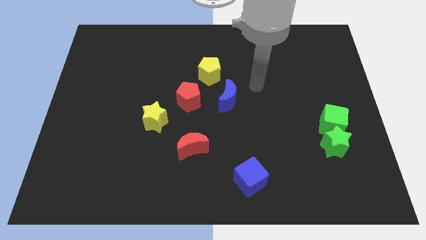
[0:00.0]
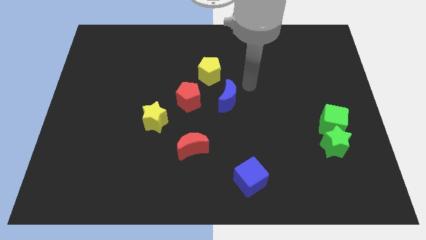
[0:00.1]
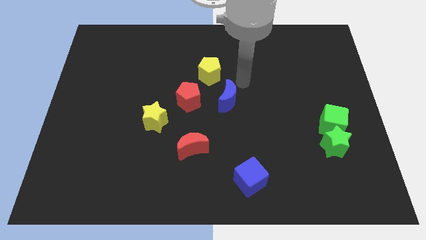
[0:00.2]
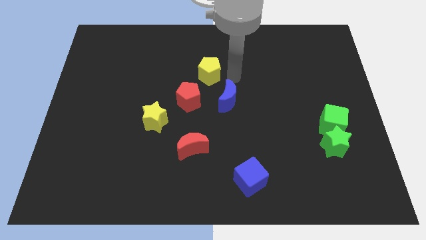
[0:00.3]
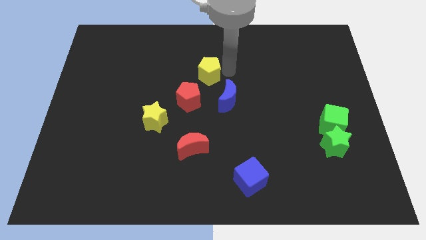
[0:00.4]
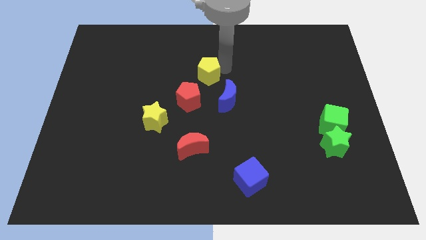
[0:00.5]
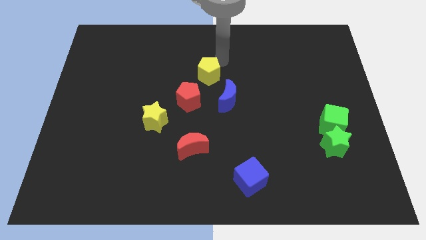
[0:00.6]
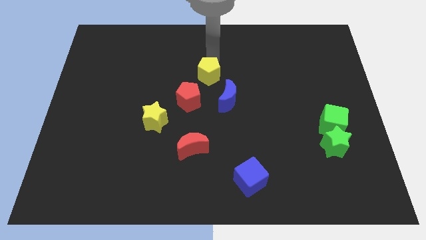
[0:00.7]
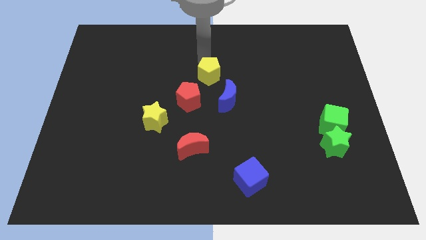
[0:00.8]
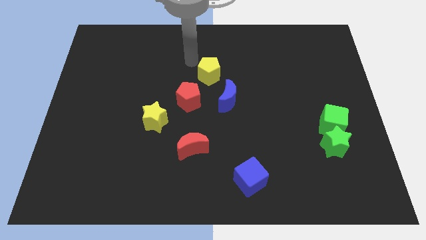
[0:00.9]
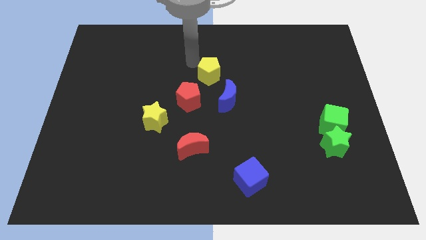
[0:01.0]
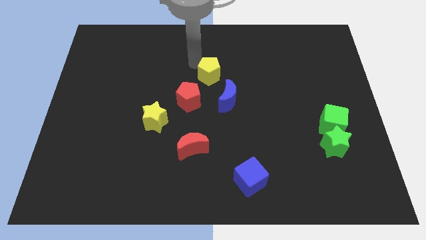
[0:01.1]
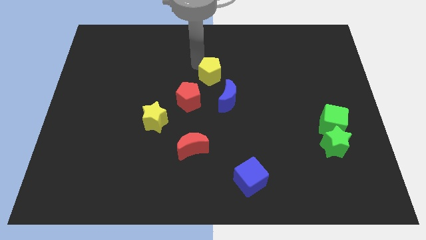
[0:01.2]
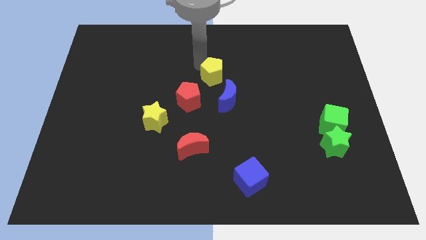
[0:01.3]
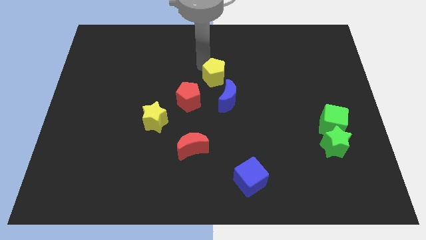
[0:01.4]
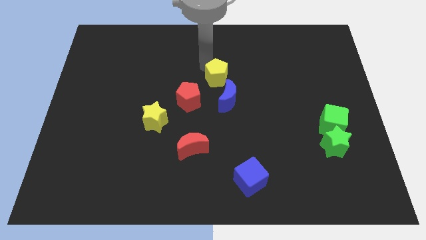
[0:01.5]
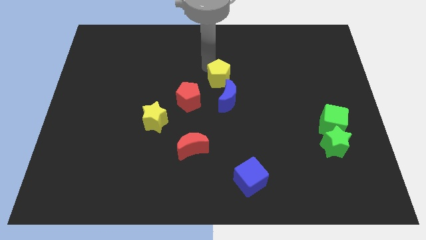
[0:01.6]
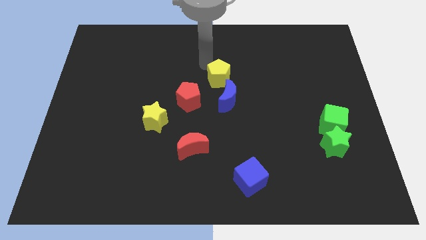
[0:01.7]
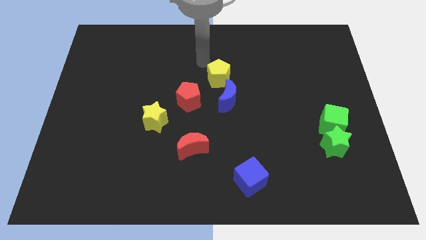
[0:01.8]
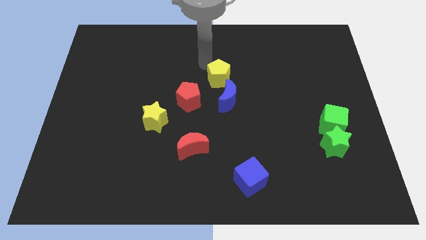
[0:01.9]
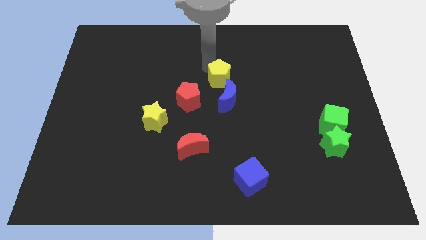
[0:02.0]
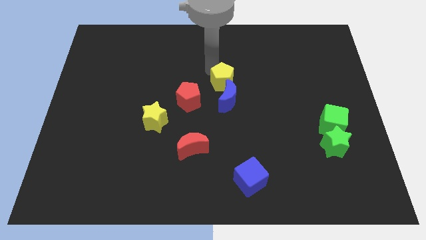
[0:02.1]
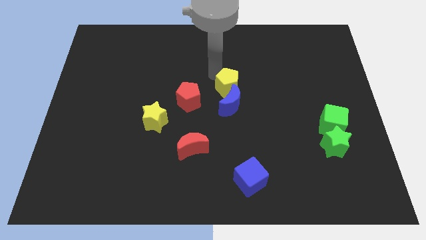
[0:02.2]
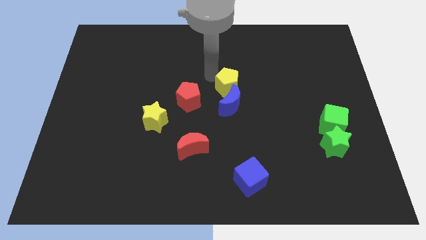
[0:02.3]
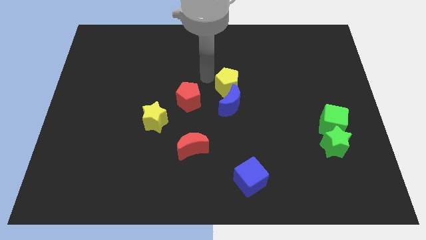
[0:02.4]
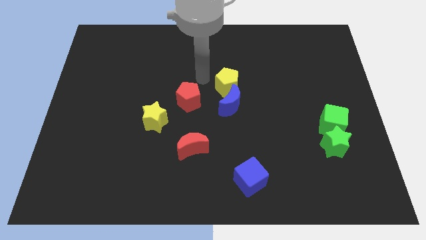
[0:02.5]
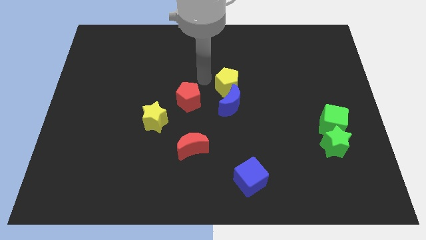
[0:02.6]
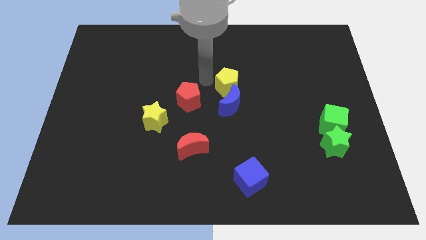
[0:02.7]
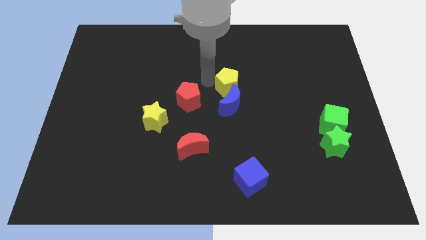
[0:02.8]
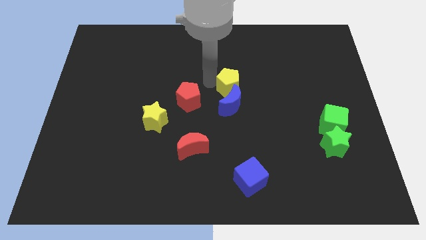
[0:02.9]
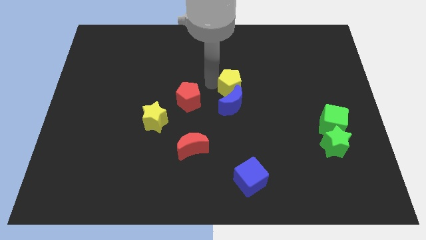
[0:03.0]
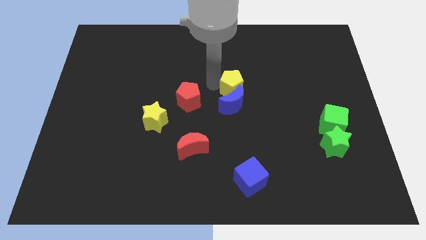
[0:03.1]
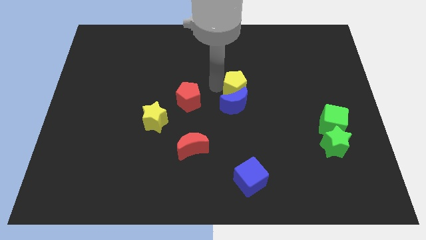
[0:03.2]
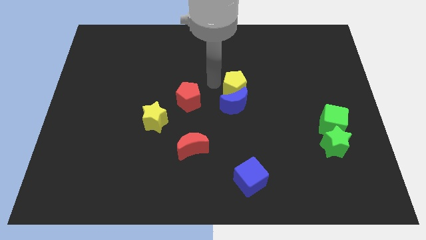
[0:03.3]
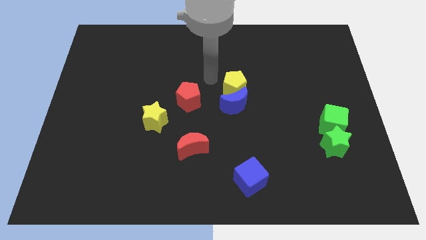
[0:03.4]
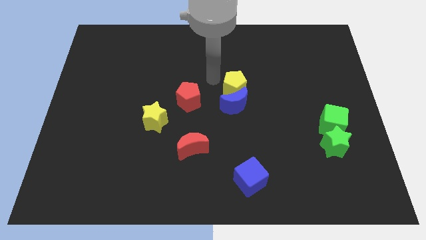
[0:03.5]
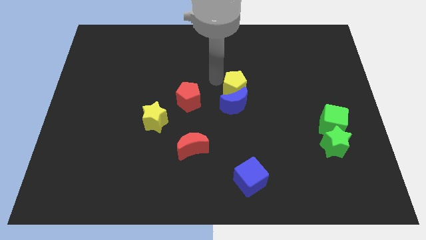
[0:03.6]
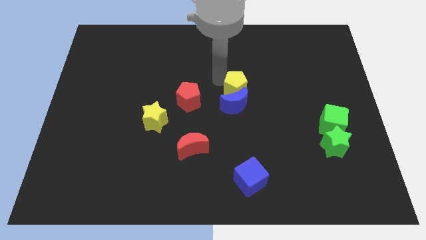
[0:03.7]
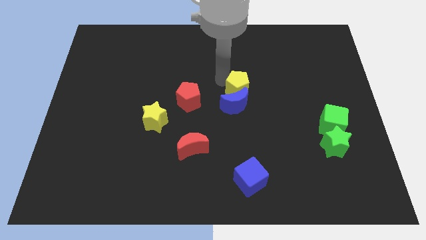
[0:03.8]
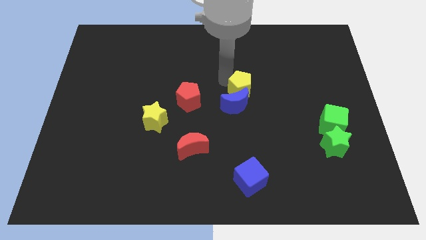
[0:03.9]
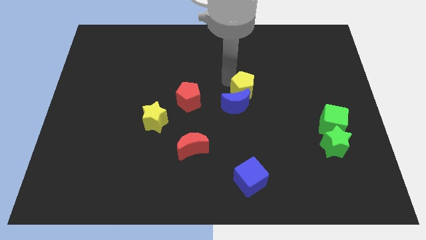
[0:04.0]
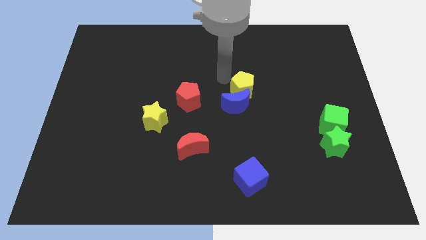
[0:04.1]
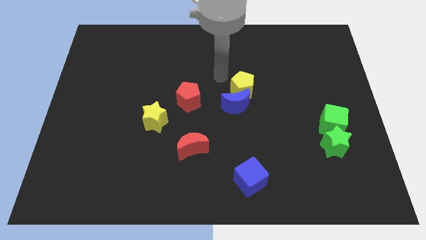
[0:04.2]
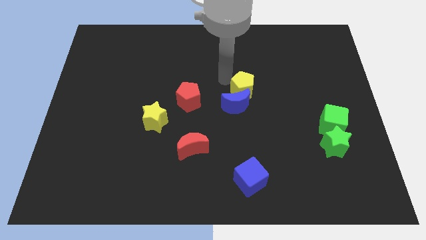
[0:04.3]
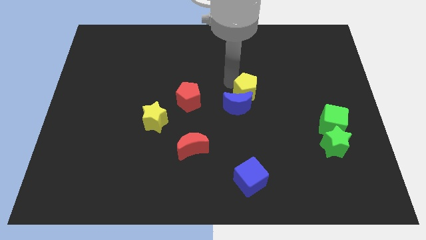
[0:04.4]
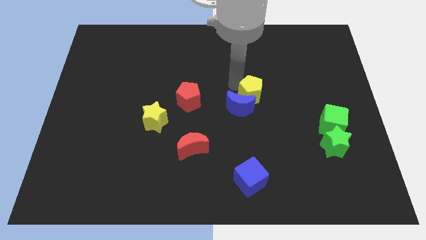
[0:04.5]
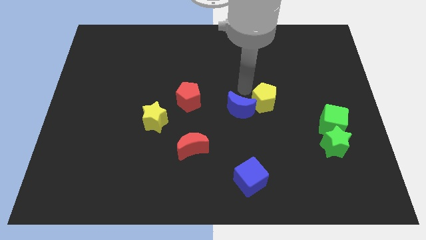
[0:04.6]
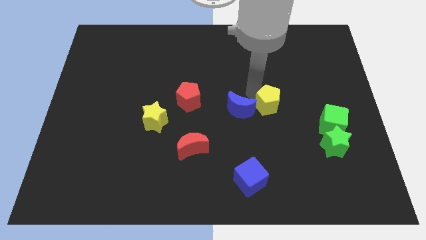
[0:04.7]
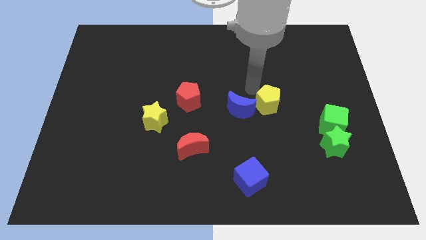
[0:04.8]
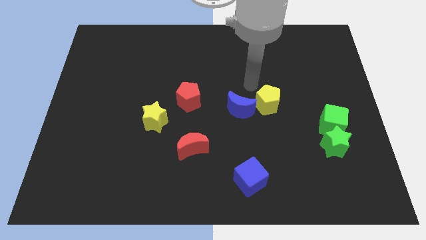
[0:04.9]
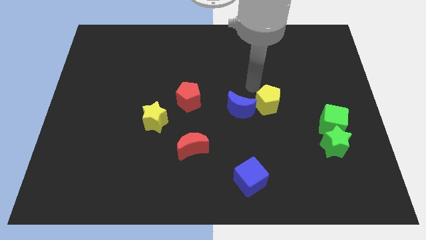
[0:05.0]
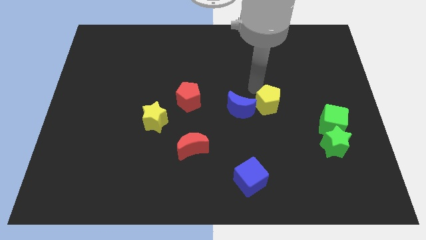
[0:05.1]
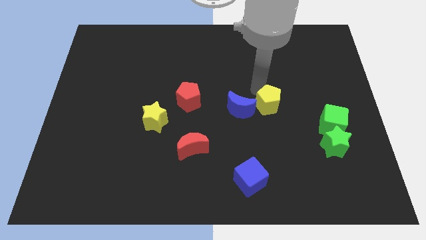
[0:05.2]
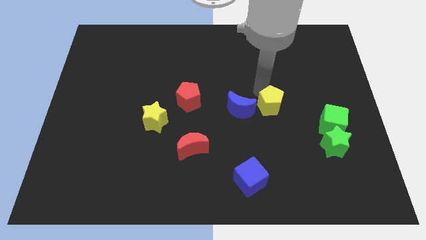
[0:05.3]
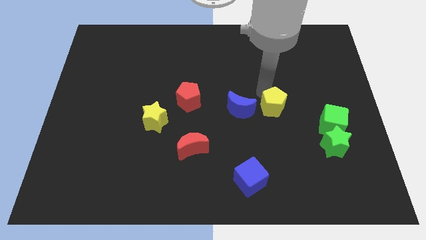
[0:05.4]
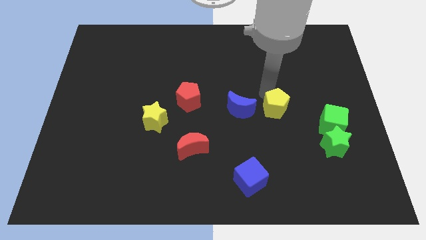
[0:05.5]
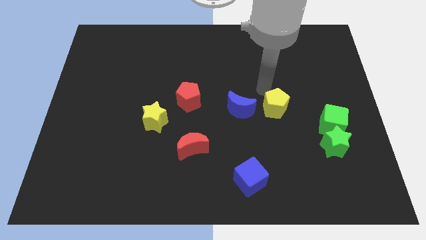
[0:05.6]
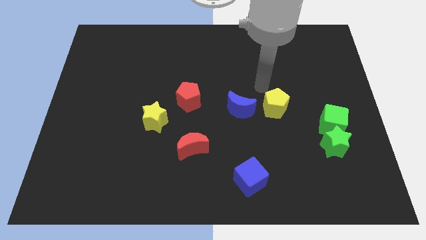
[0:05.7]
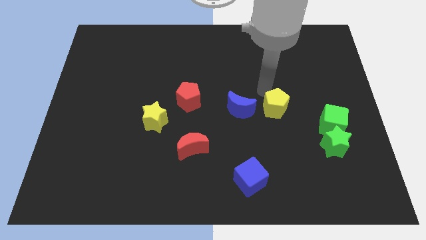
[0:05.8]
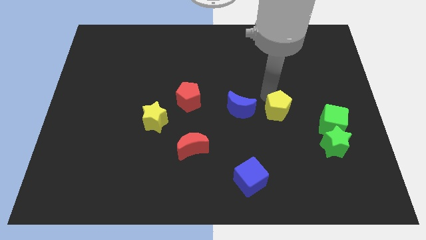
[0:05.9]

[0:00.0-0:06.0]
slide the yellow pentagon just left of the green cube

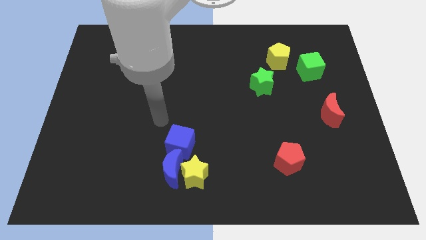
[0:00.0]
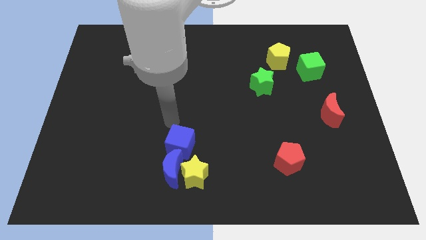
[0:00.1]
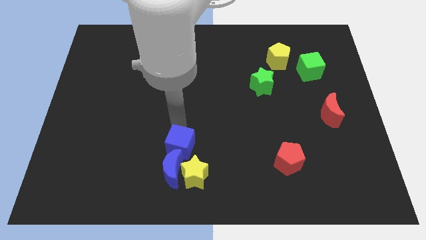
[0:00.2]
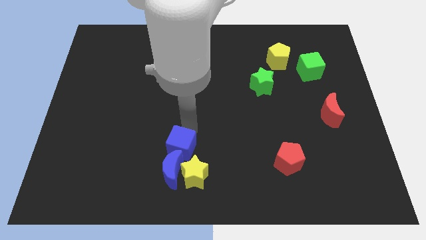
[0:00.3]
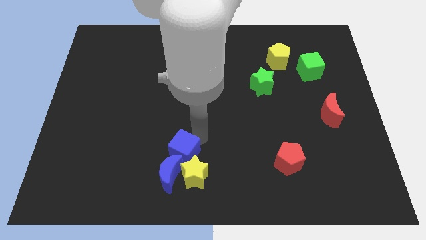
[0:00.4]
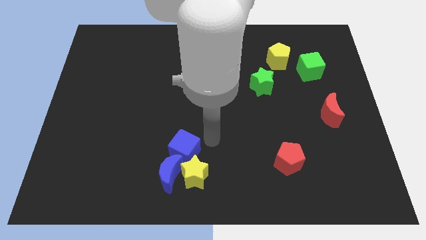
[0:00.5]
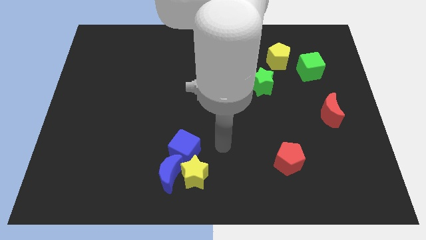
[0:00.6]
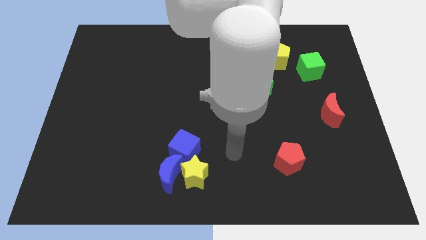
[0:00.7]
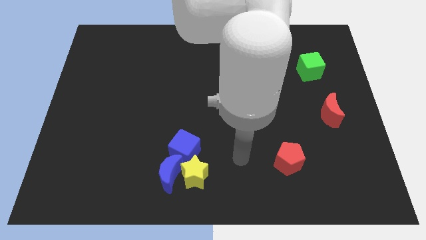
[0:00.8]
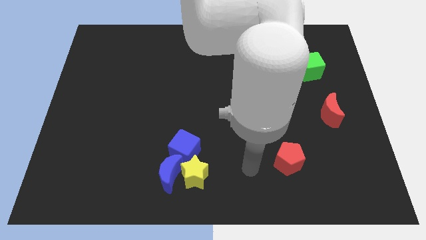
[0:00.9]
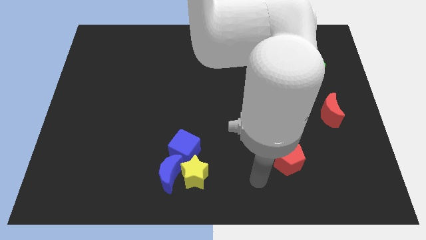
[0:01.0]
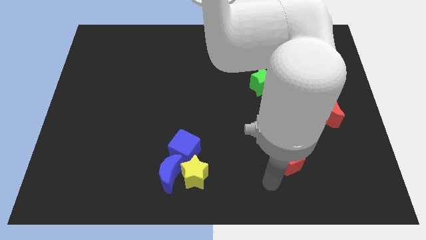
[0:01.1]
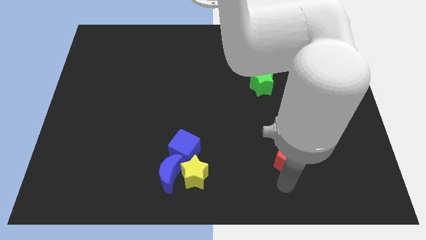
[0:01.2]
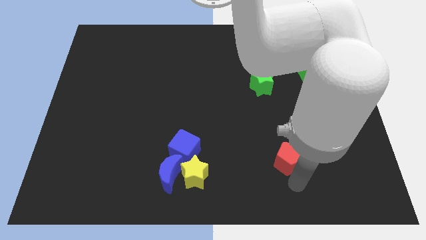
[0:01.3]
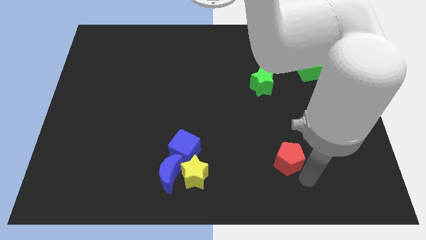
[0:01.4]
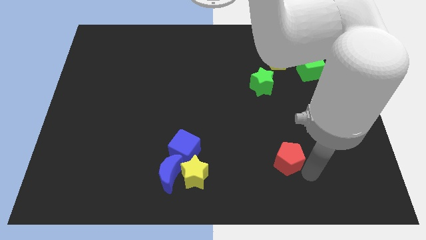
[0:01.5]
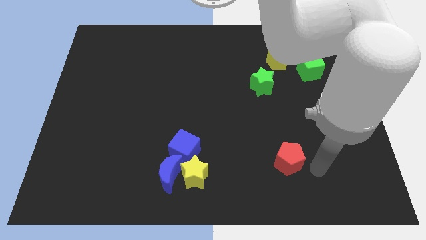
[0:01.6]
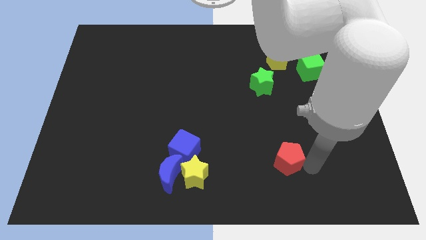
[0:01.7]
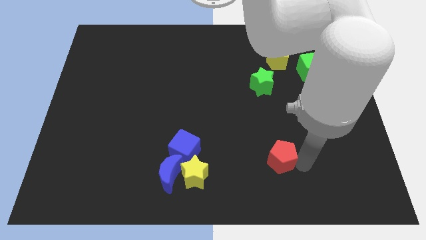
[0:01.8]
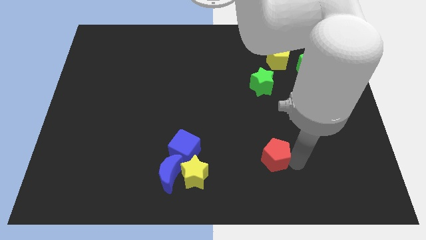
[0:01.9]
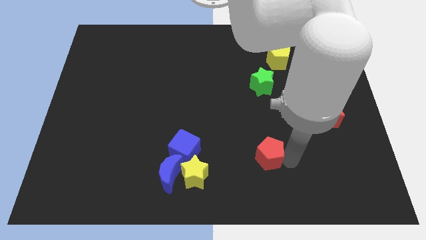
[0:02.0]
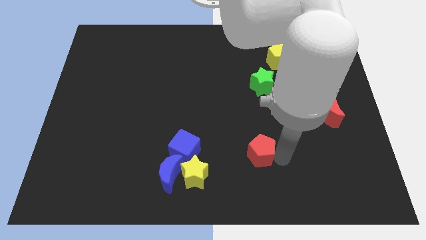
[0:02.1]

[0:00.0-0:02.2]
put the red pentagon just right of the blue cube
